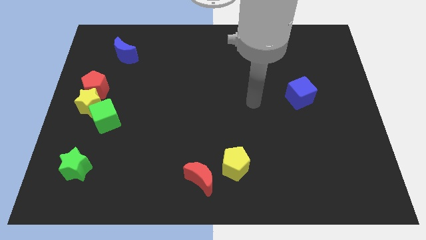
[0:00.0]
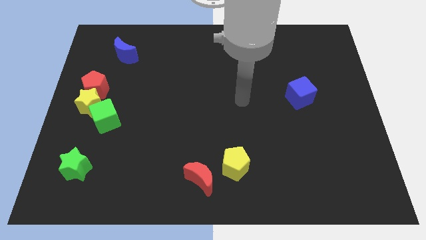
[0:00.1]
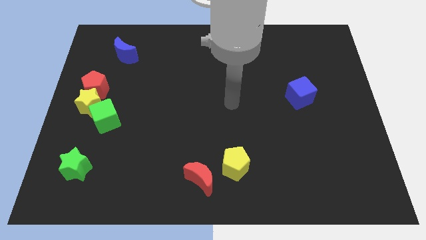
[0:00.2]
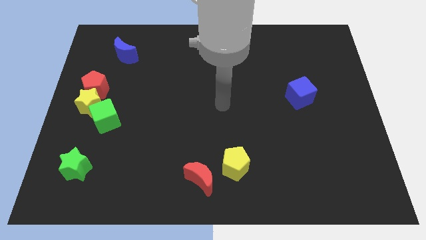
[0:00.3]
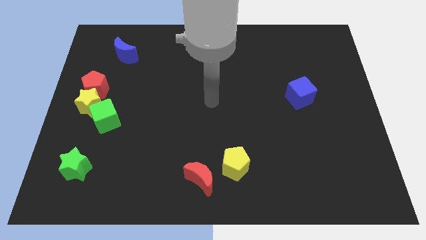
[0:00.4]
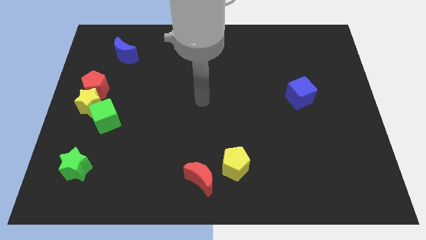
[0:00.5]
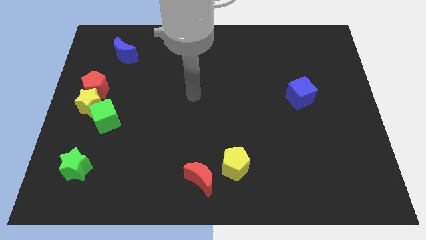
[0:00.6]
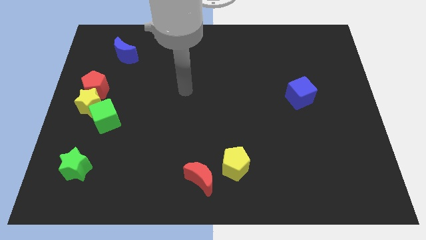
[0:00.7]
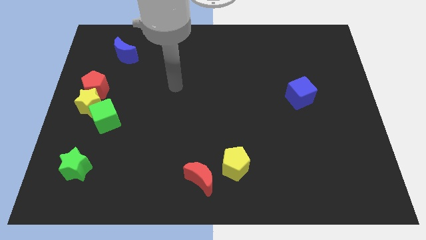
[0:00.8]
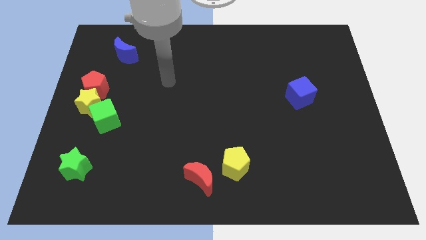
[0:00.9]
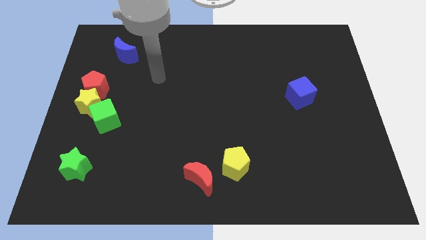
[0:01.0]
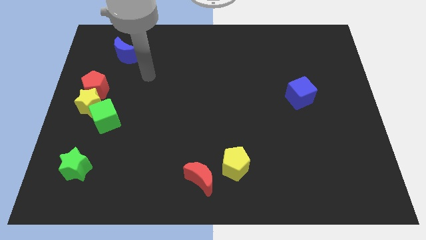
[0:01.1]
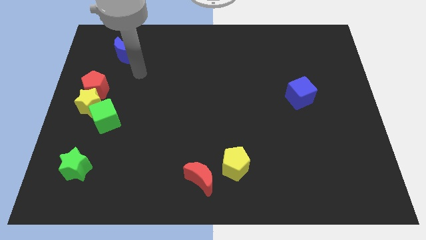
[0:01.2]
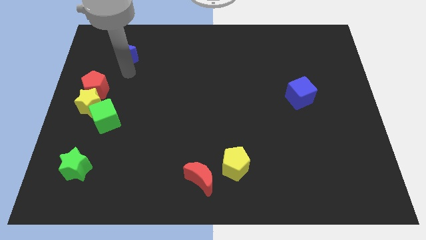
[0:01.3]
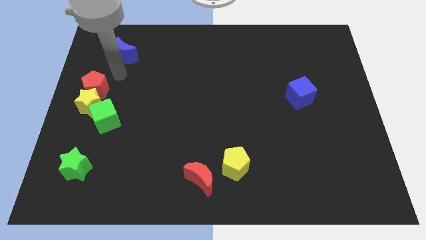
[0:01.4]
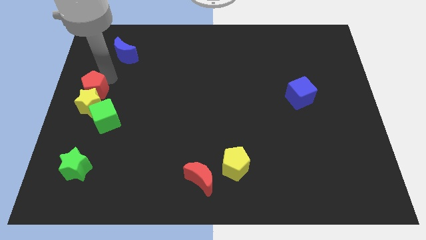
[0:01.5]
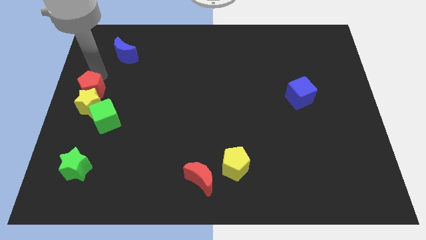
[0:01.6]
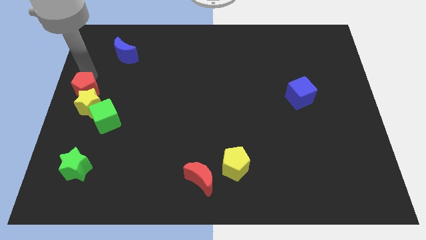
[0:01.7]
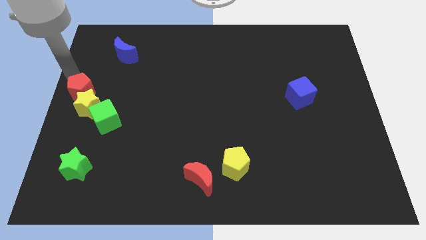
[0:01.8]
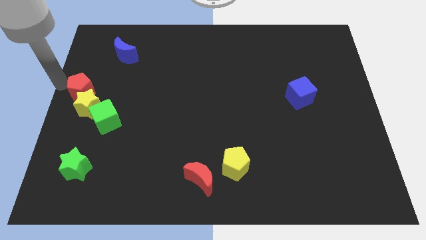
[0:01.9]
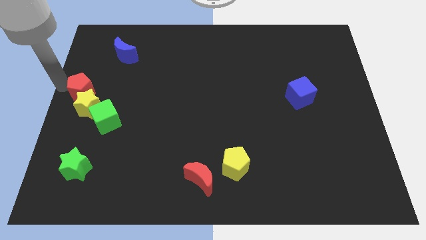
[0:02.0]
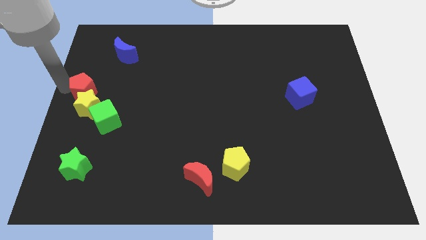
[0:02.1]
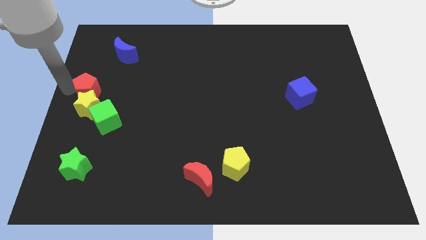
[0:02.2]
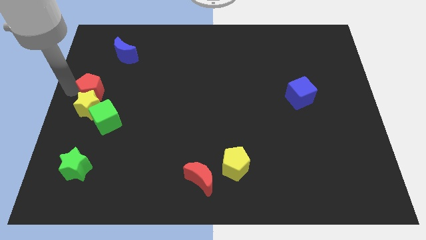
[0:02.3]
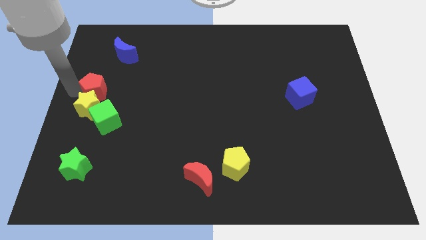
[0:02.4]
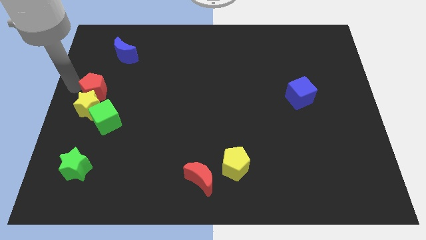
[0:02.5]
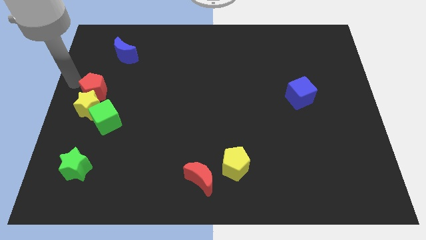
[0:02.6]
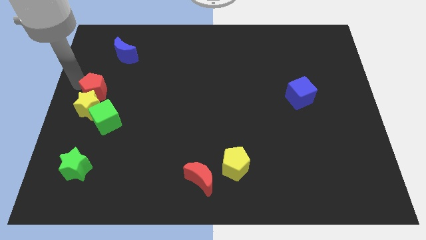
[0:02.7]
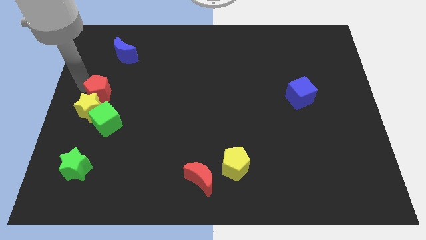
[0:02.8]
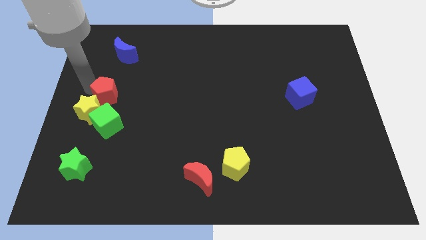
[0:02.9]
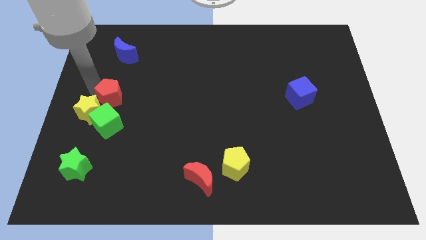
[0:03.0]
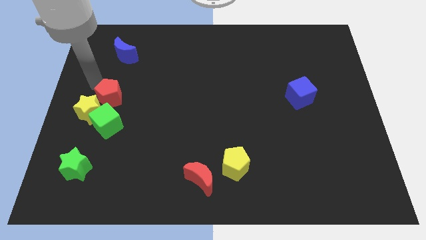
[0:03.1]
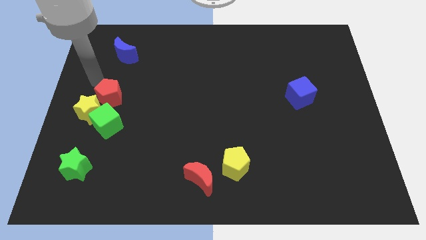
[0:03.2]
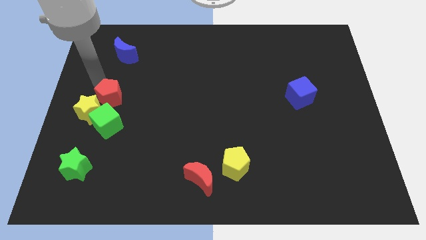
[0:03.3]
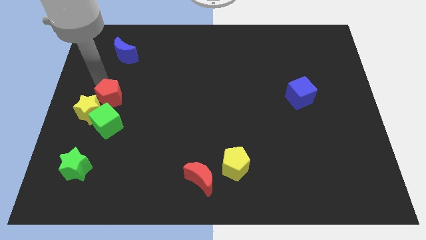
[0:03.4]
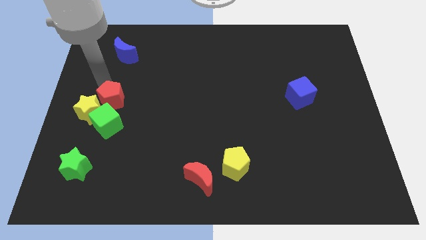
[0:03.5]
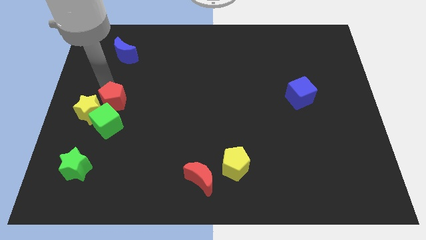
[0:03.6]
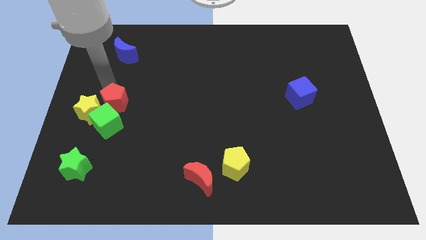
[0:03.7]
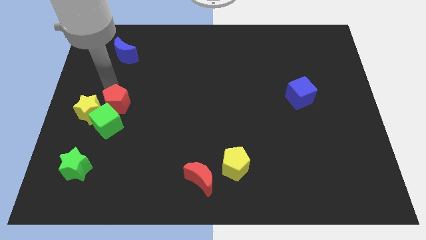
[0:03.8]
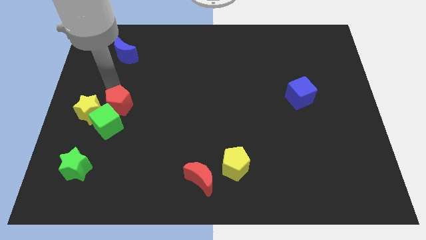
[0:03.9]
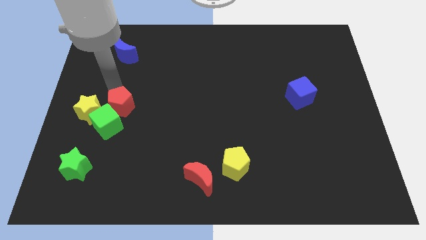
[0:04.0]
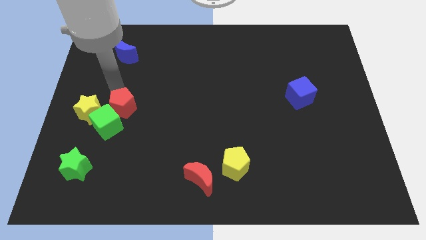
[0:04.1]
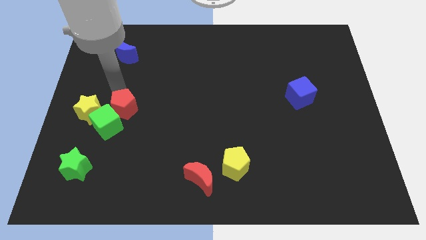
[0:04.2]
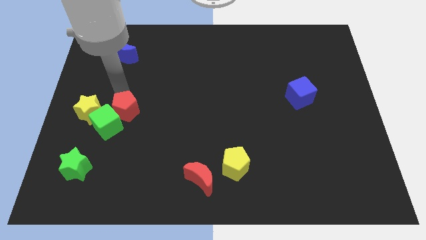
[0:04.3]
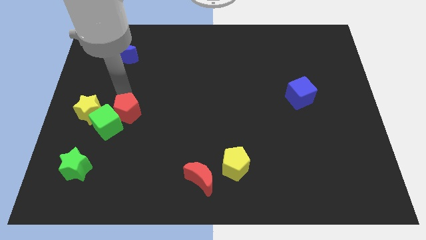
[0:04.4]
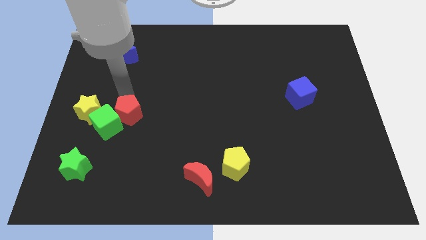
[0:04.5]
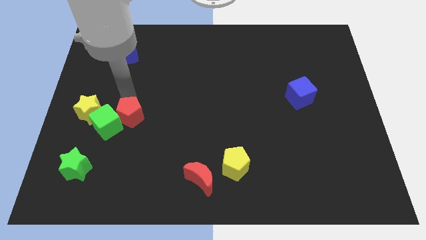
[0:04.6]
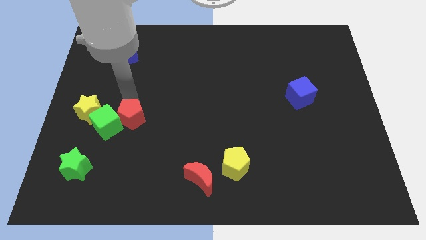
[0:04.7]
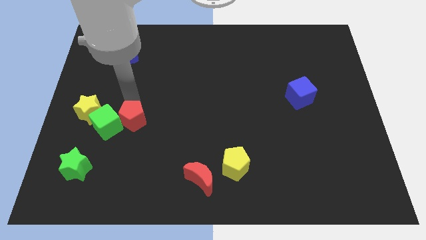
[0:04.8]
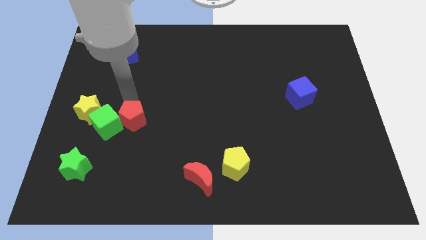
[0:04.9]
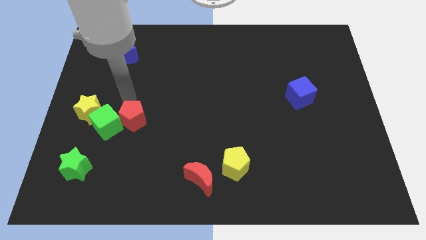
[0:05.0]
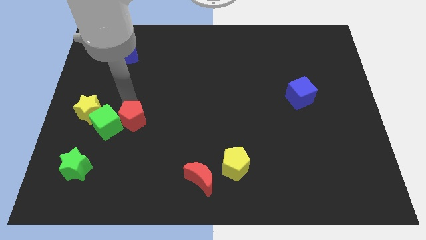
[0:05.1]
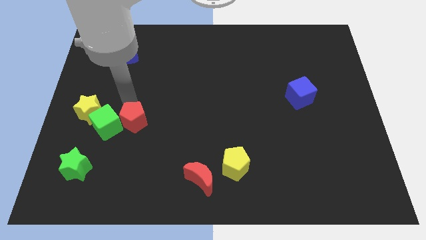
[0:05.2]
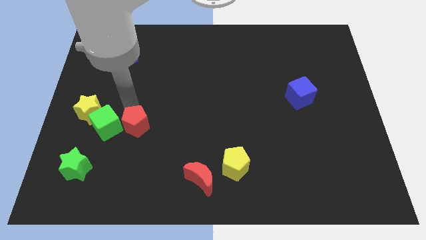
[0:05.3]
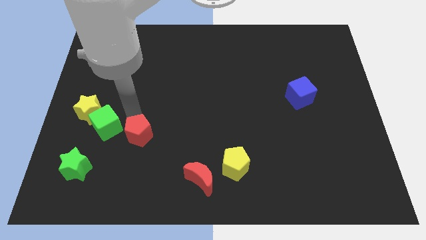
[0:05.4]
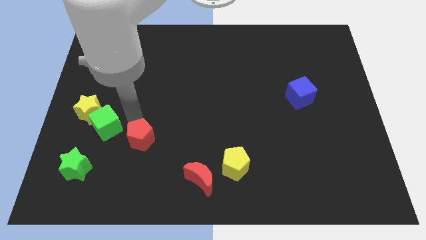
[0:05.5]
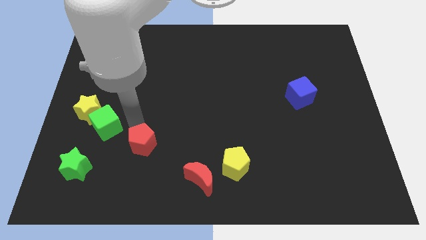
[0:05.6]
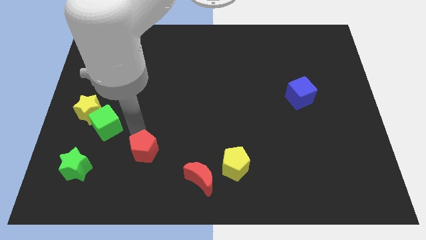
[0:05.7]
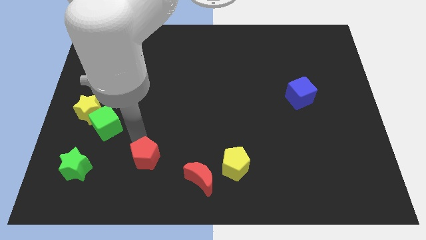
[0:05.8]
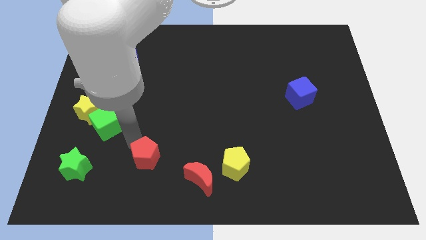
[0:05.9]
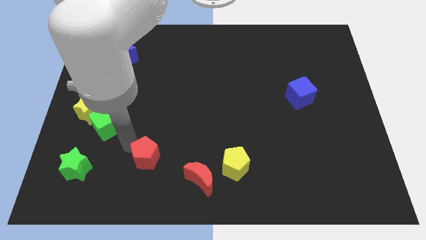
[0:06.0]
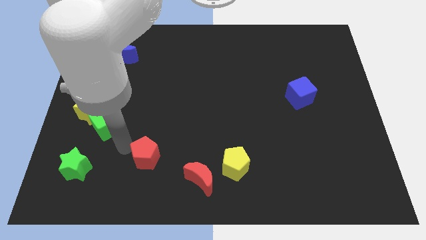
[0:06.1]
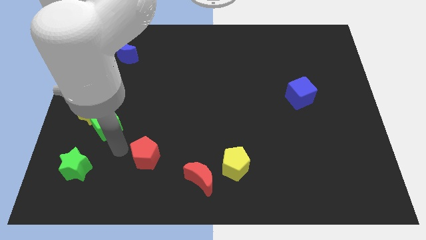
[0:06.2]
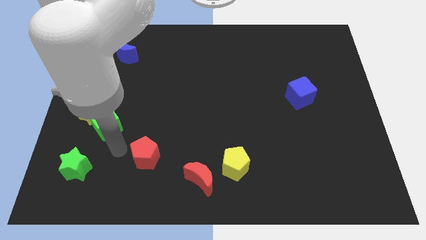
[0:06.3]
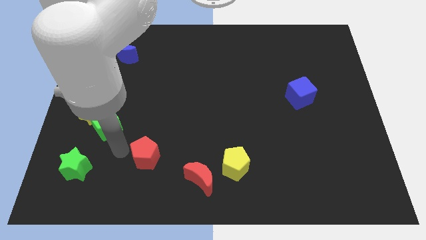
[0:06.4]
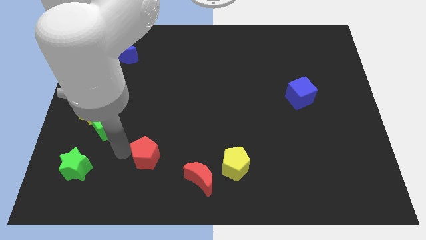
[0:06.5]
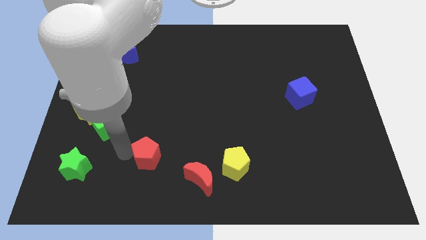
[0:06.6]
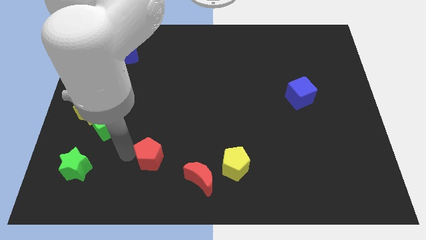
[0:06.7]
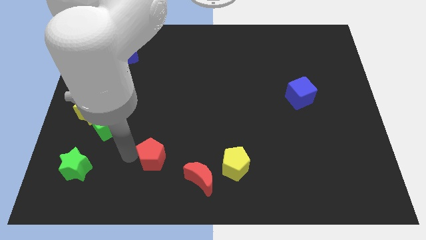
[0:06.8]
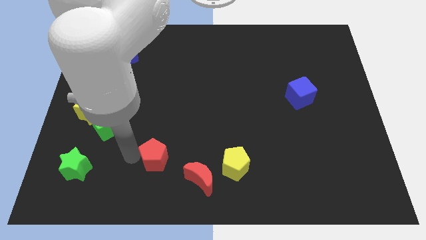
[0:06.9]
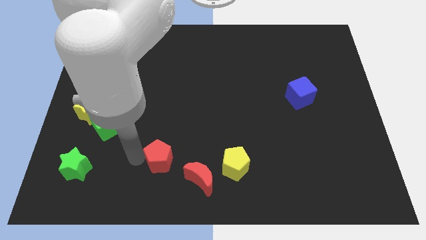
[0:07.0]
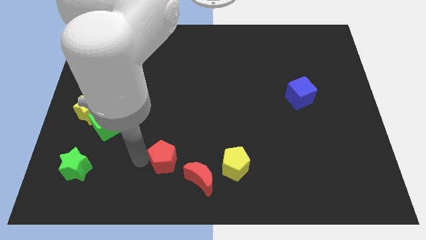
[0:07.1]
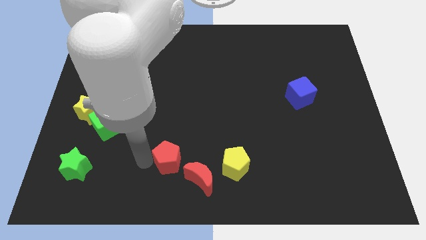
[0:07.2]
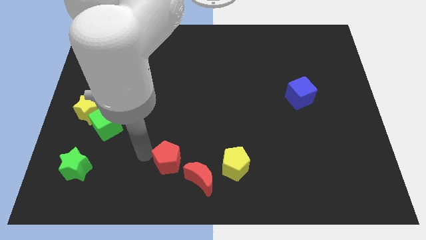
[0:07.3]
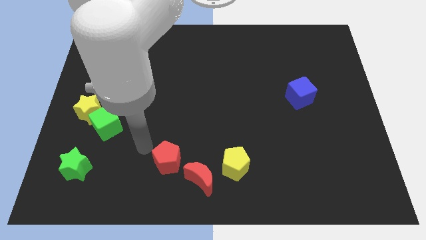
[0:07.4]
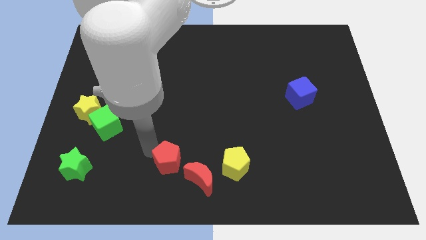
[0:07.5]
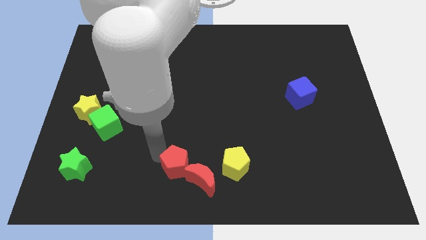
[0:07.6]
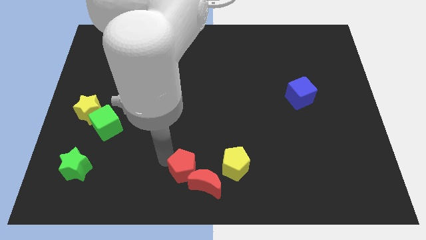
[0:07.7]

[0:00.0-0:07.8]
move the red pentagon next to the red moon
